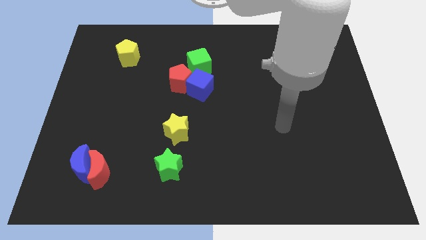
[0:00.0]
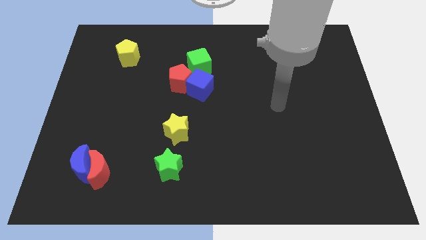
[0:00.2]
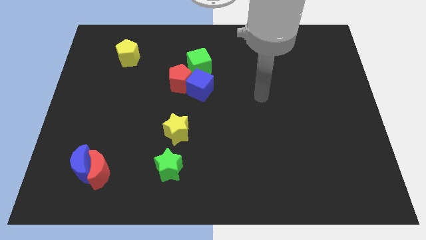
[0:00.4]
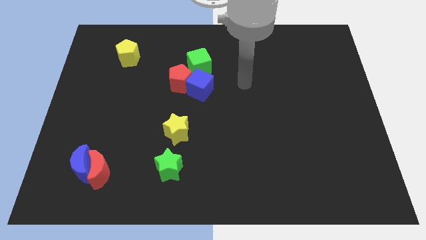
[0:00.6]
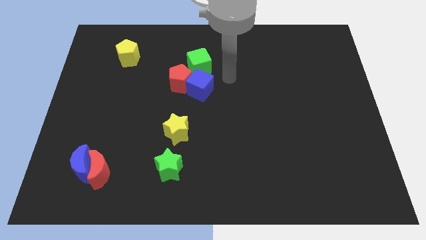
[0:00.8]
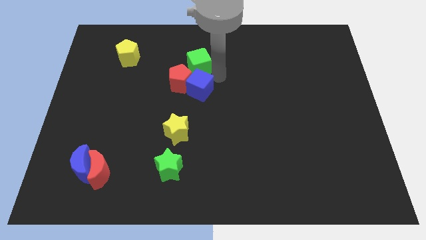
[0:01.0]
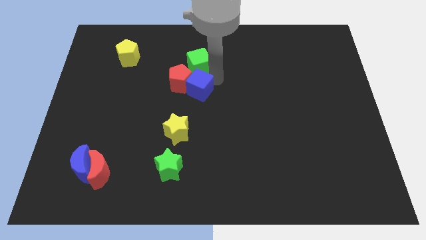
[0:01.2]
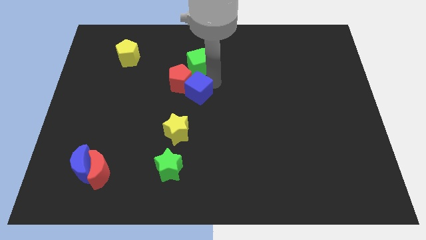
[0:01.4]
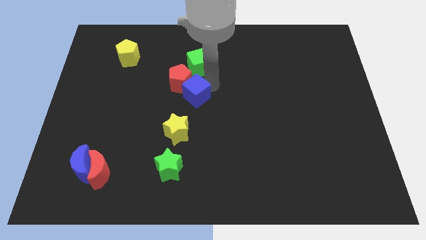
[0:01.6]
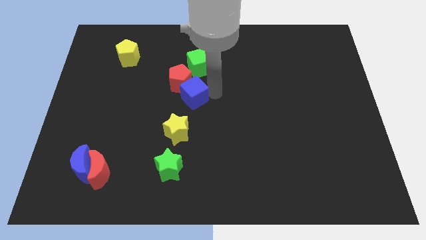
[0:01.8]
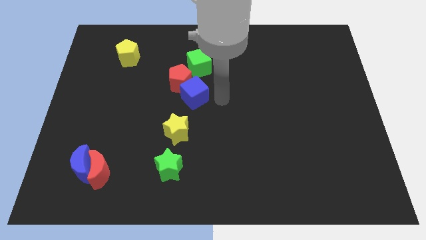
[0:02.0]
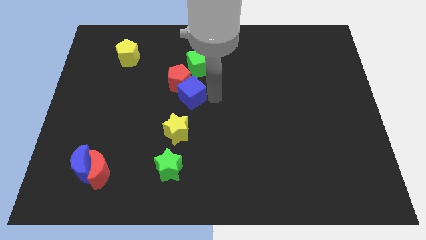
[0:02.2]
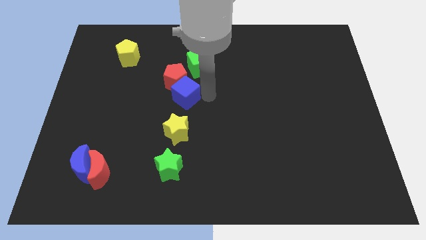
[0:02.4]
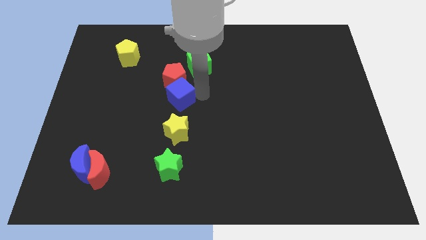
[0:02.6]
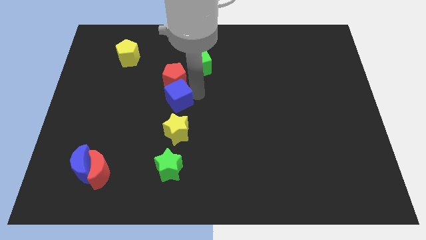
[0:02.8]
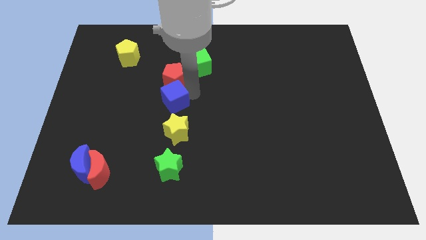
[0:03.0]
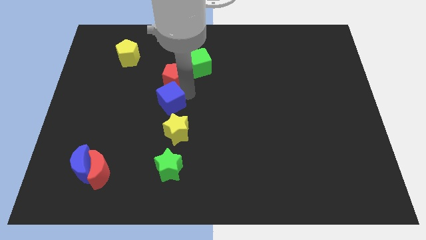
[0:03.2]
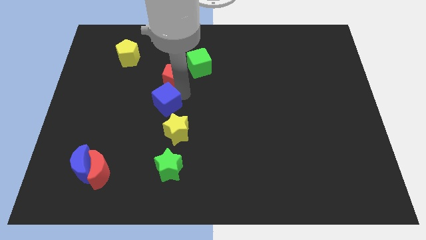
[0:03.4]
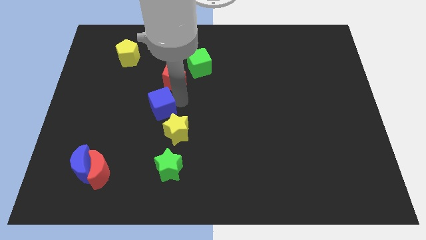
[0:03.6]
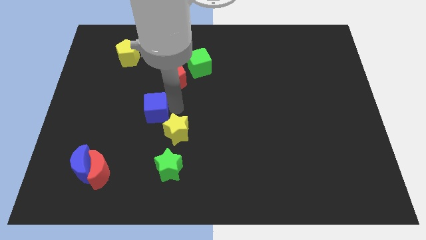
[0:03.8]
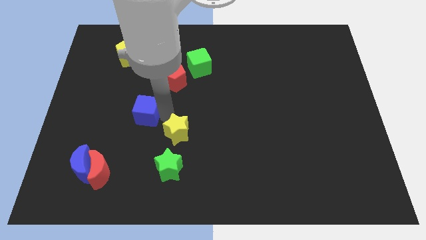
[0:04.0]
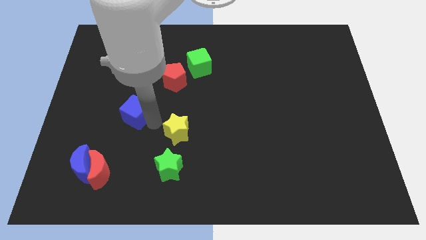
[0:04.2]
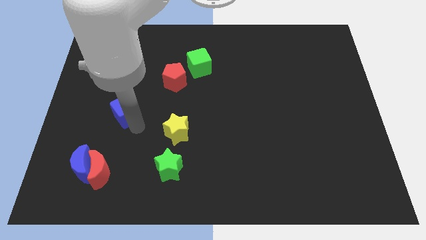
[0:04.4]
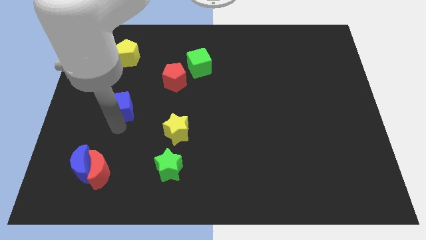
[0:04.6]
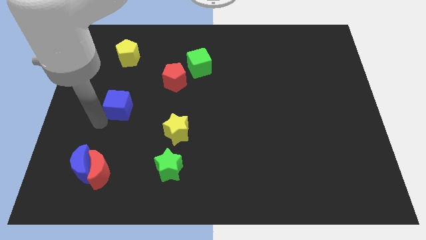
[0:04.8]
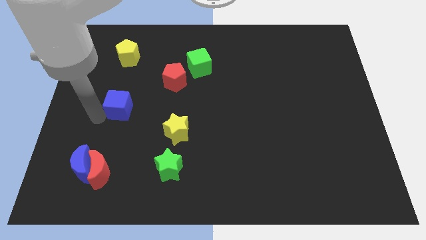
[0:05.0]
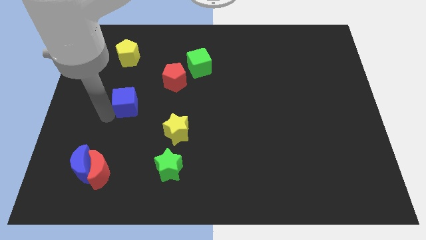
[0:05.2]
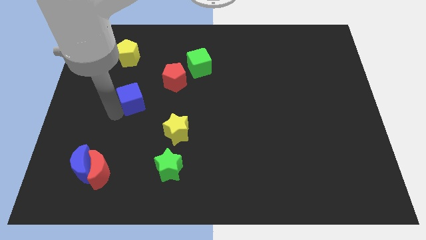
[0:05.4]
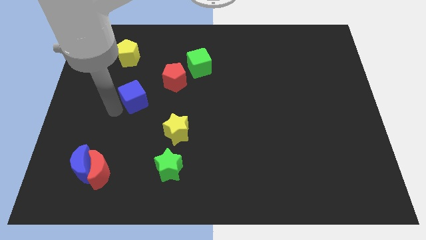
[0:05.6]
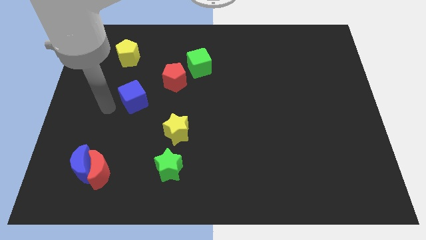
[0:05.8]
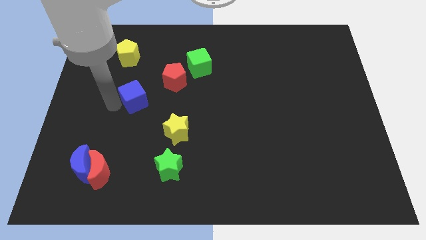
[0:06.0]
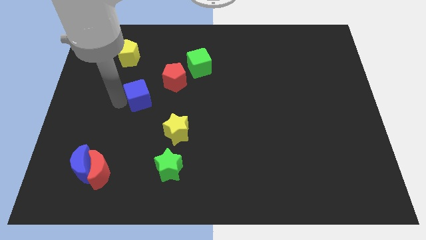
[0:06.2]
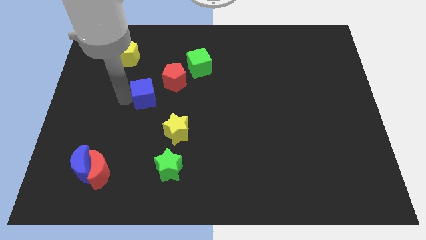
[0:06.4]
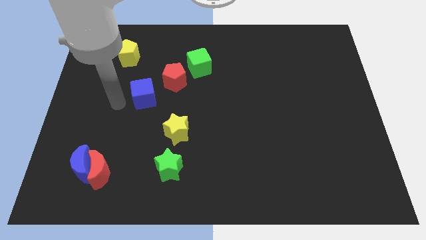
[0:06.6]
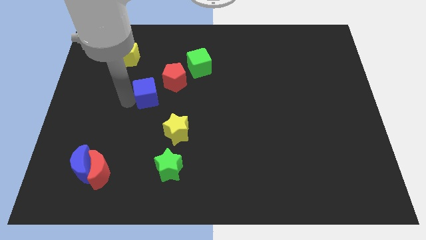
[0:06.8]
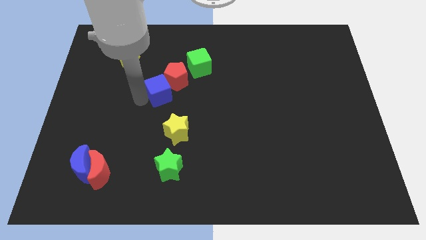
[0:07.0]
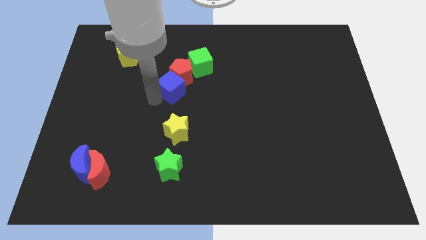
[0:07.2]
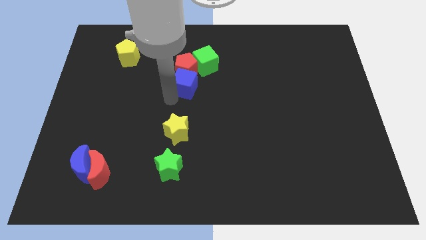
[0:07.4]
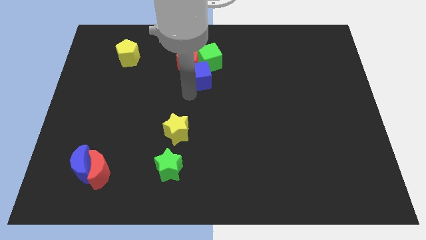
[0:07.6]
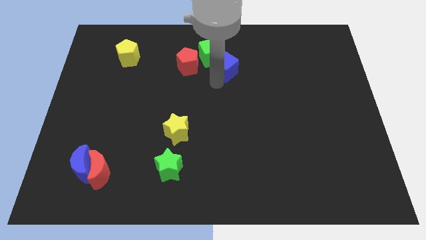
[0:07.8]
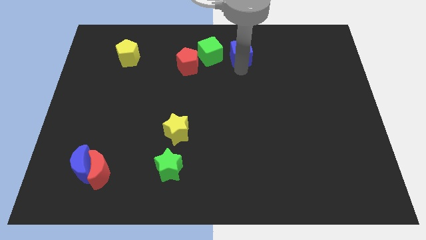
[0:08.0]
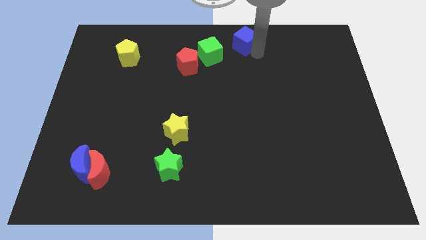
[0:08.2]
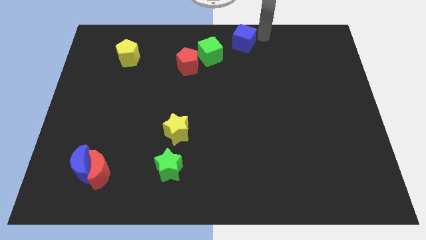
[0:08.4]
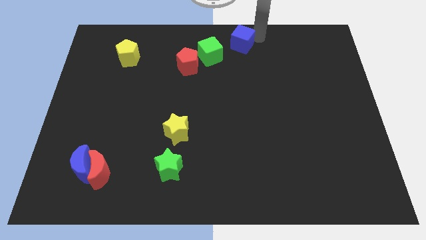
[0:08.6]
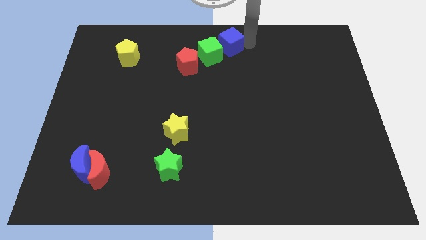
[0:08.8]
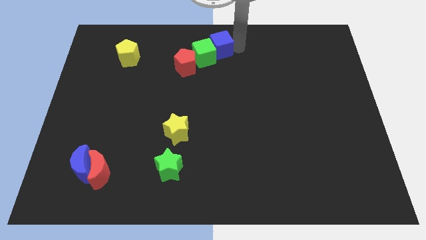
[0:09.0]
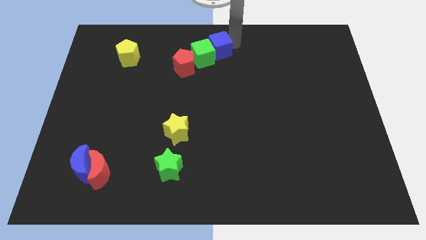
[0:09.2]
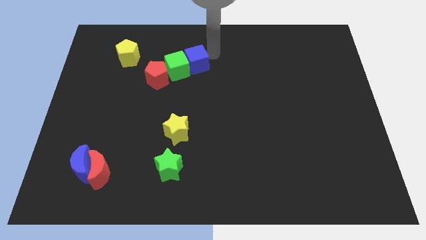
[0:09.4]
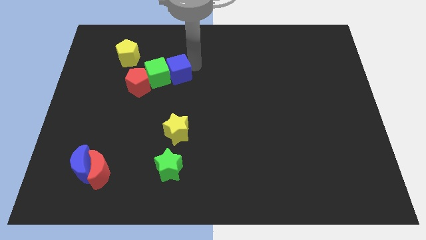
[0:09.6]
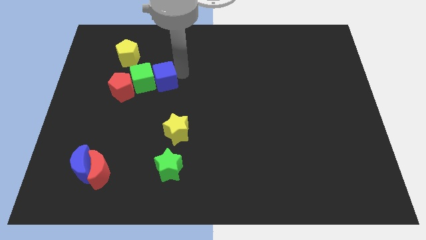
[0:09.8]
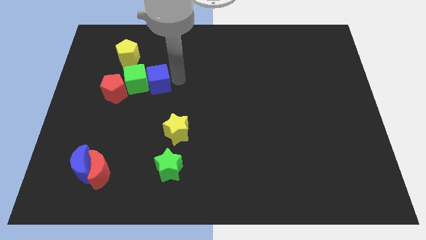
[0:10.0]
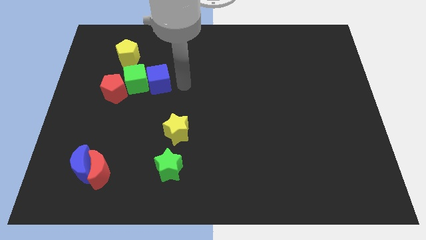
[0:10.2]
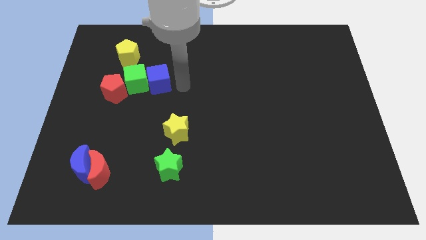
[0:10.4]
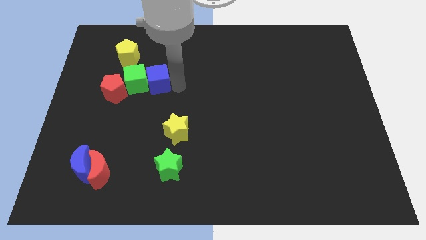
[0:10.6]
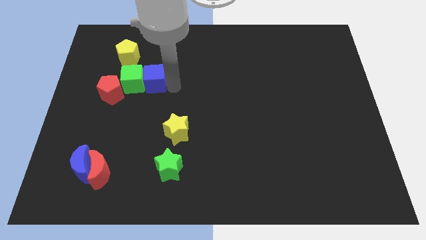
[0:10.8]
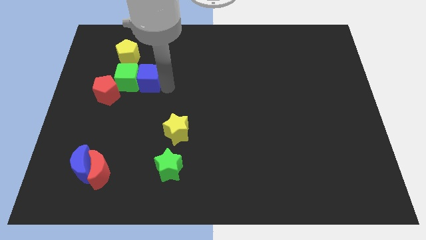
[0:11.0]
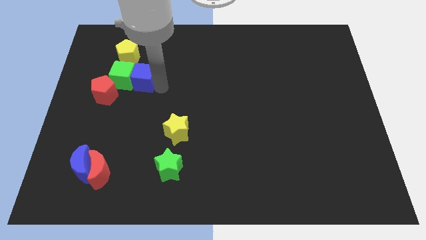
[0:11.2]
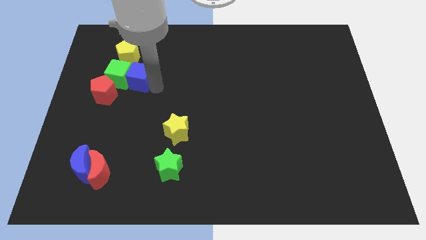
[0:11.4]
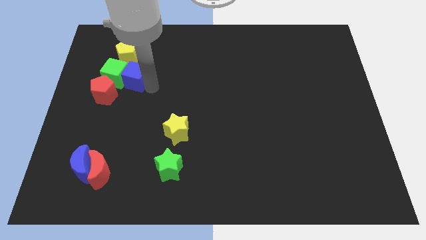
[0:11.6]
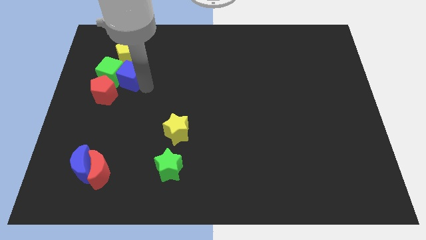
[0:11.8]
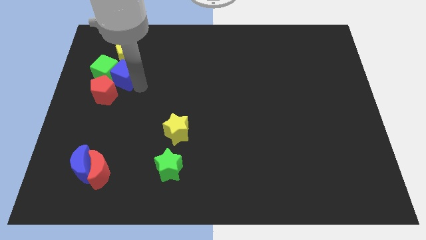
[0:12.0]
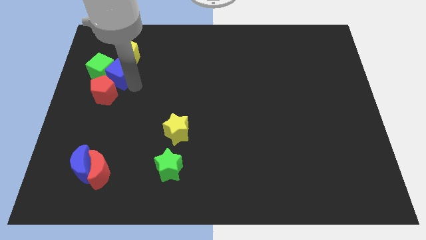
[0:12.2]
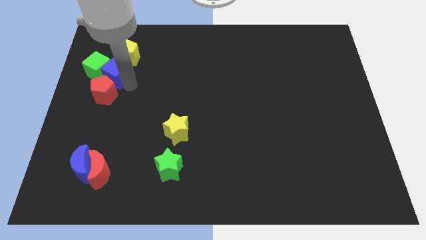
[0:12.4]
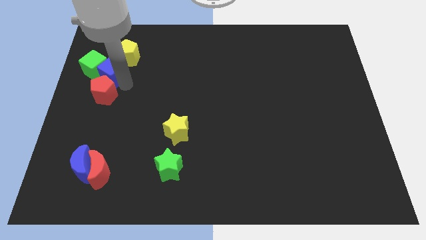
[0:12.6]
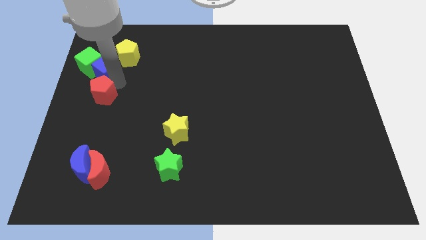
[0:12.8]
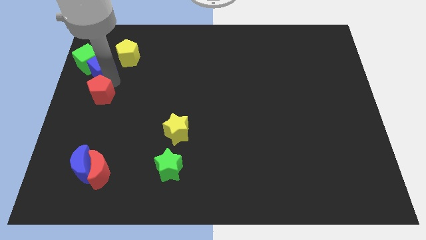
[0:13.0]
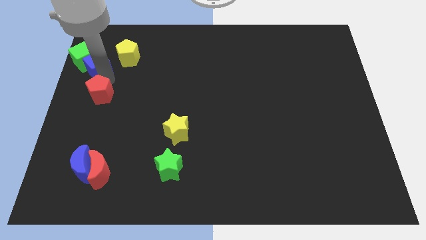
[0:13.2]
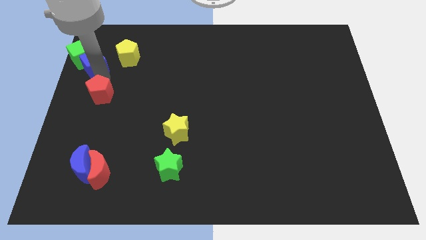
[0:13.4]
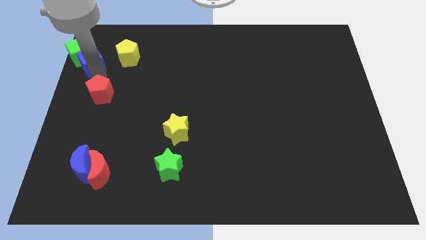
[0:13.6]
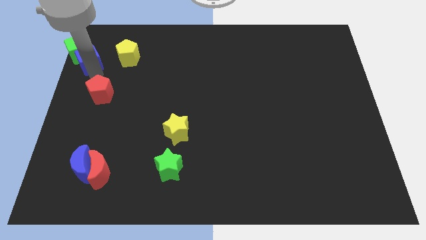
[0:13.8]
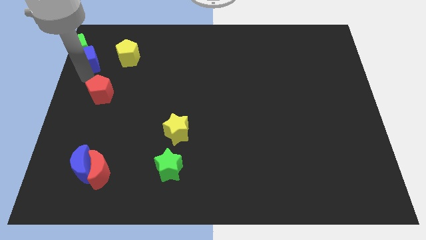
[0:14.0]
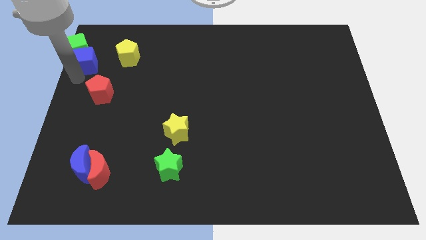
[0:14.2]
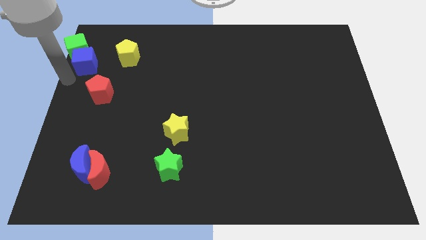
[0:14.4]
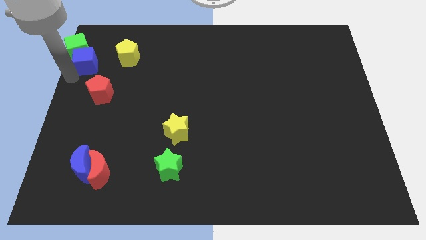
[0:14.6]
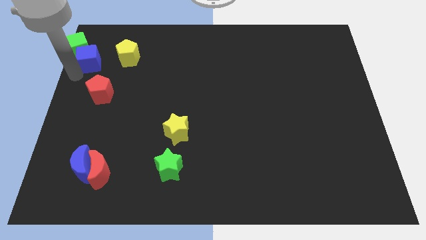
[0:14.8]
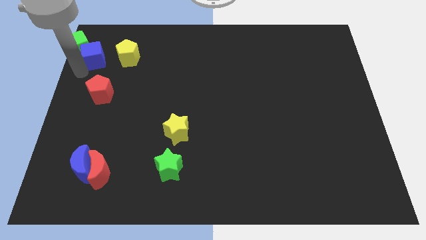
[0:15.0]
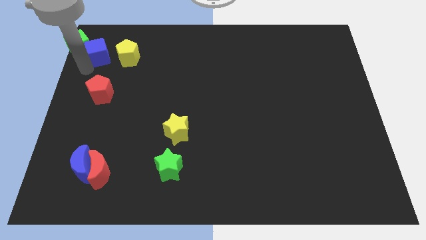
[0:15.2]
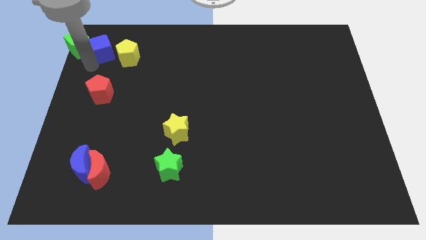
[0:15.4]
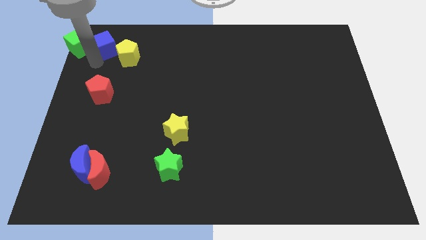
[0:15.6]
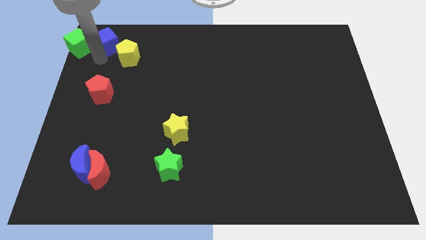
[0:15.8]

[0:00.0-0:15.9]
move the blue cube to the upper left corner

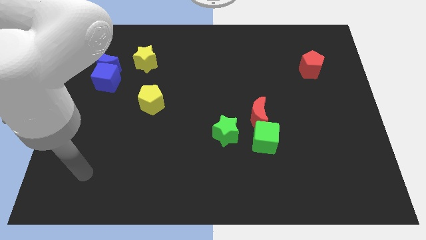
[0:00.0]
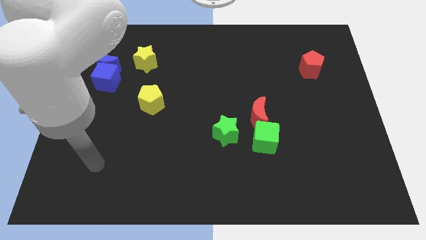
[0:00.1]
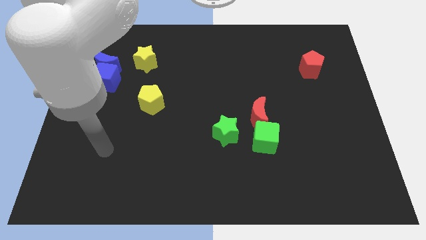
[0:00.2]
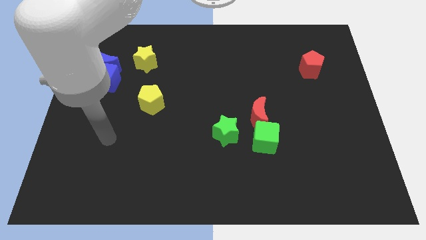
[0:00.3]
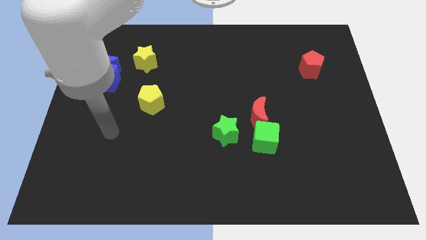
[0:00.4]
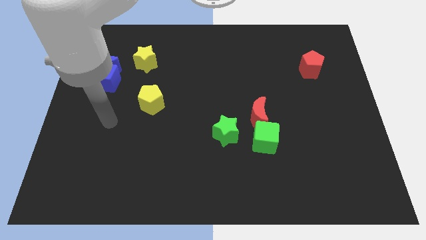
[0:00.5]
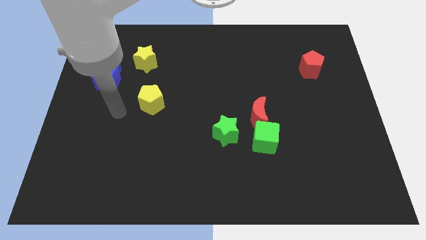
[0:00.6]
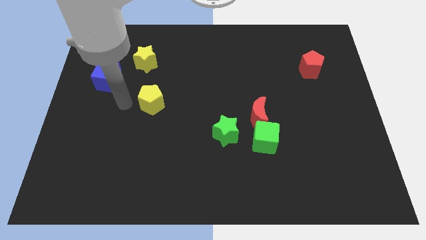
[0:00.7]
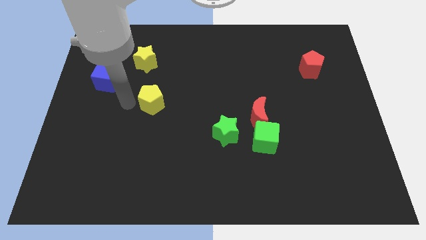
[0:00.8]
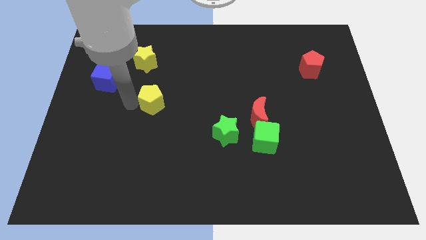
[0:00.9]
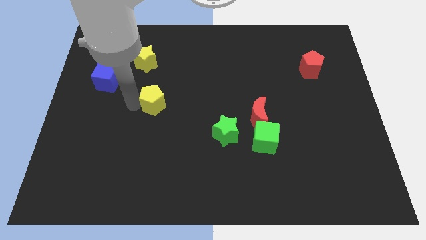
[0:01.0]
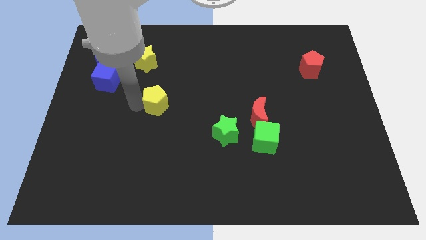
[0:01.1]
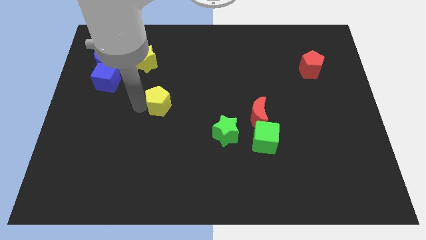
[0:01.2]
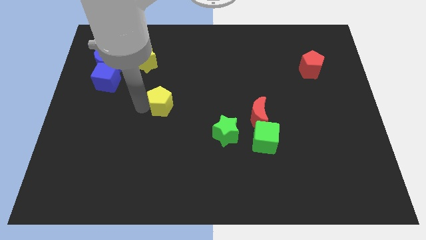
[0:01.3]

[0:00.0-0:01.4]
move the yellow pentagon to the middle
